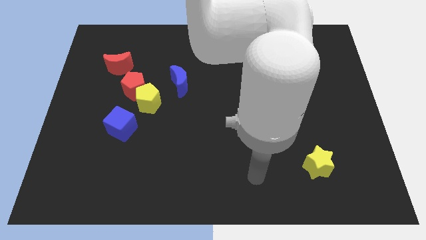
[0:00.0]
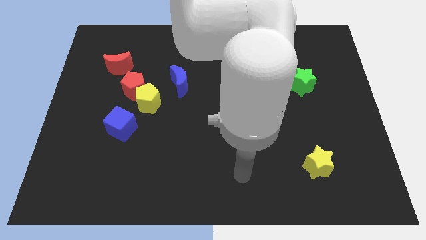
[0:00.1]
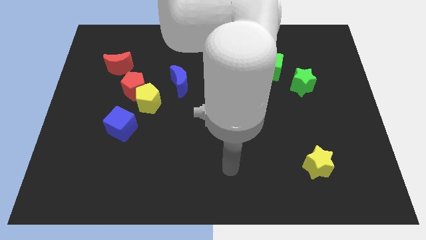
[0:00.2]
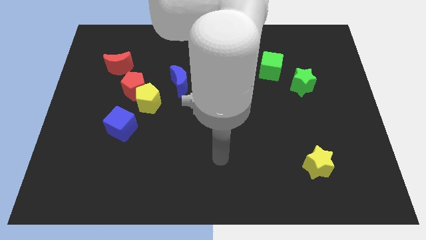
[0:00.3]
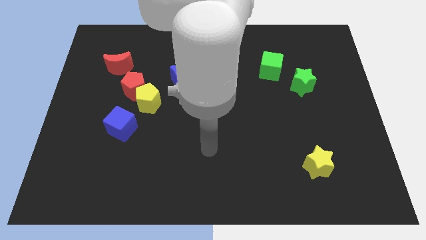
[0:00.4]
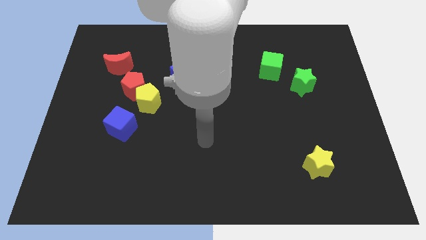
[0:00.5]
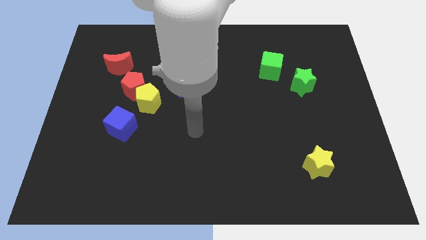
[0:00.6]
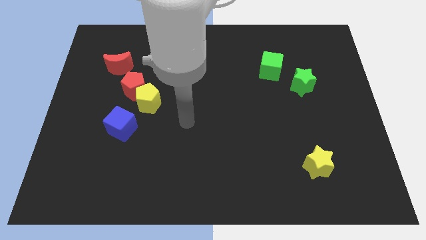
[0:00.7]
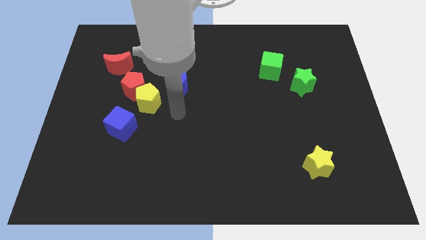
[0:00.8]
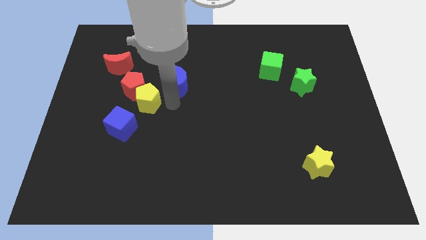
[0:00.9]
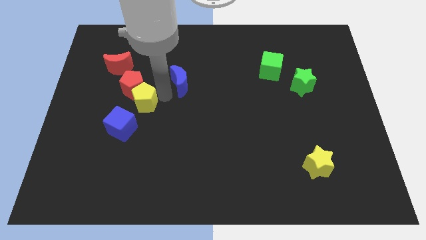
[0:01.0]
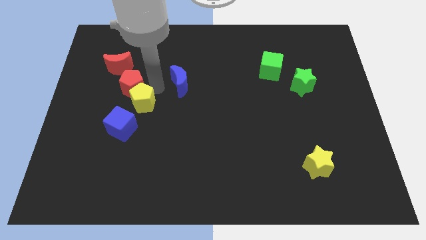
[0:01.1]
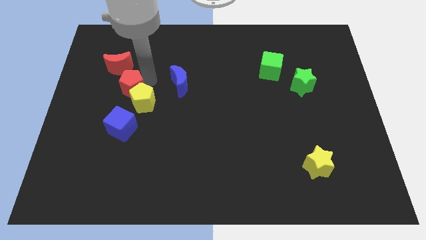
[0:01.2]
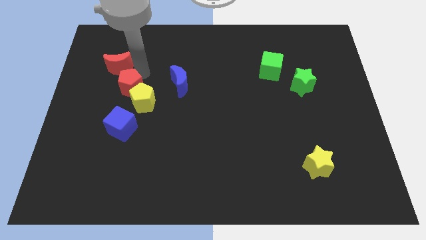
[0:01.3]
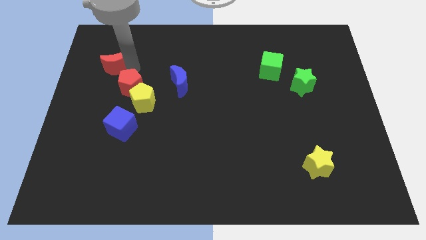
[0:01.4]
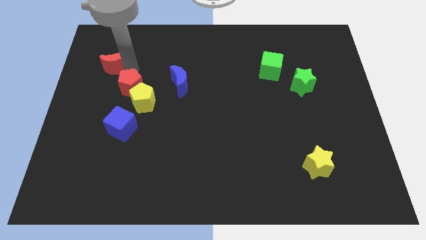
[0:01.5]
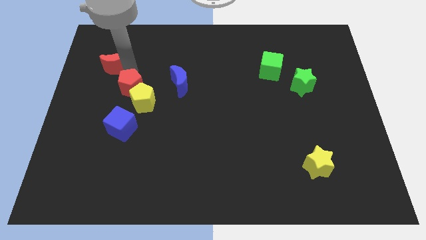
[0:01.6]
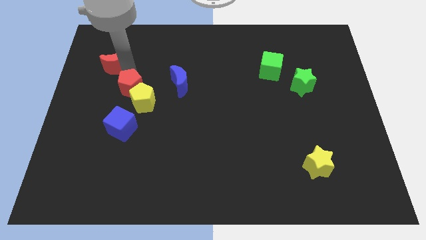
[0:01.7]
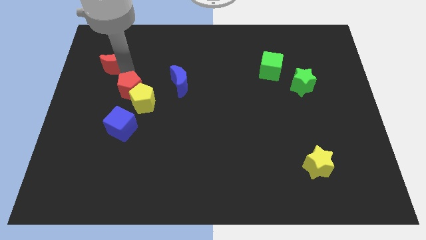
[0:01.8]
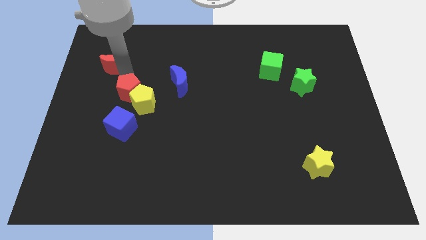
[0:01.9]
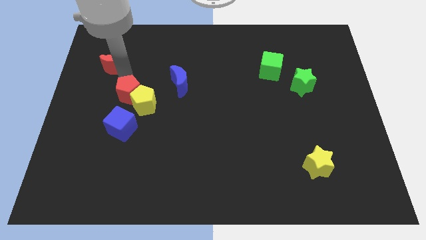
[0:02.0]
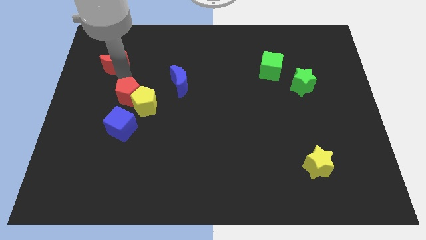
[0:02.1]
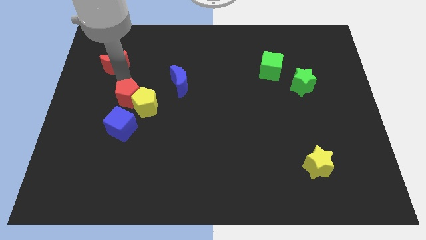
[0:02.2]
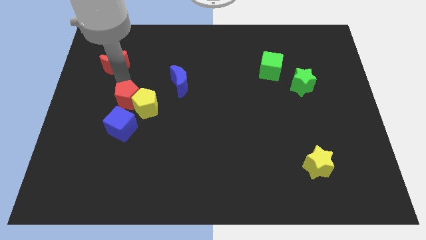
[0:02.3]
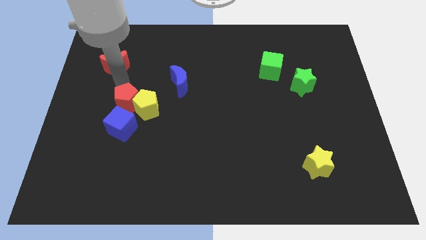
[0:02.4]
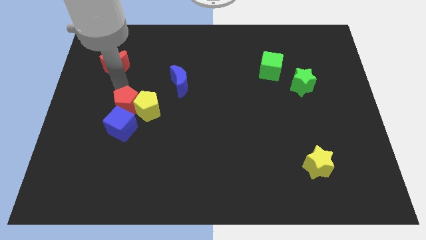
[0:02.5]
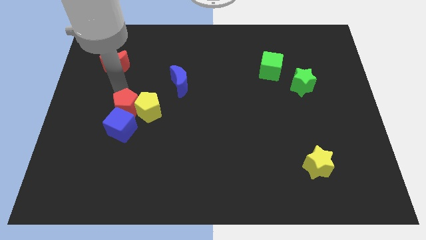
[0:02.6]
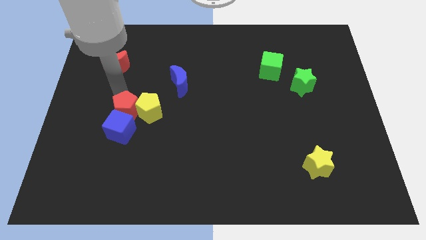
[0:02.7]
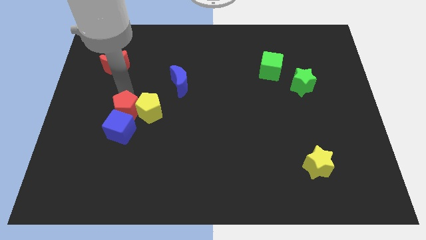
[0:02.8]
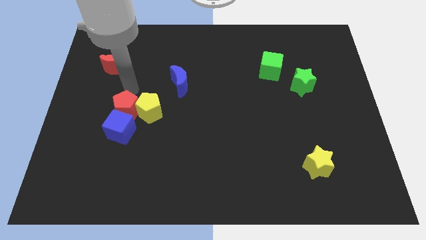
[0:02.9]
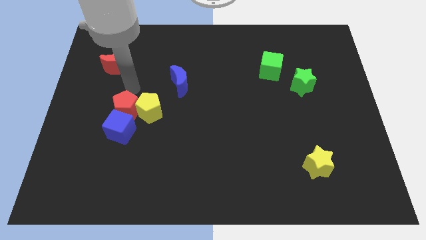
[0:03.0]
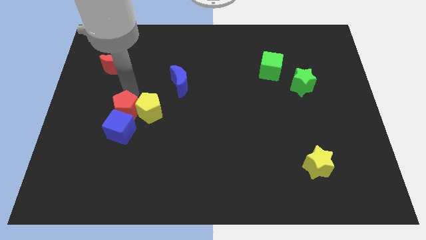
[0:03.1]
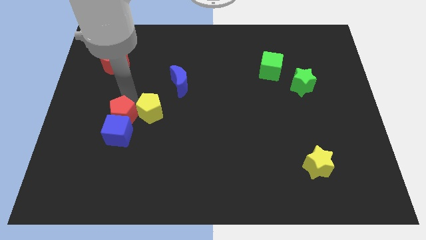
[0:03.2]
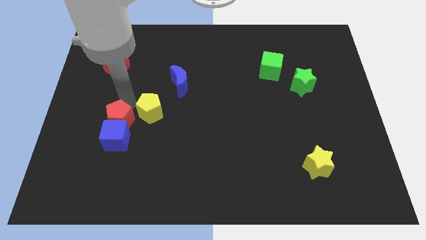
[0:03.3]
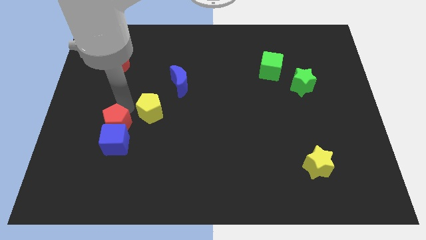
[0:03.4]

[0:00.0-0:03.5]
separate the red pentagon from the yellow pentagon and red moon

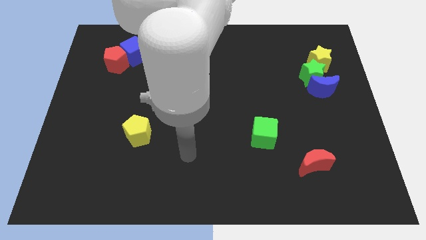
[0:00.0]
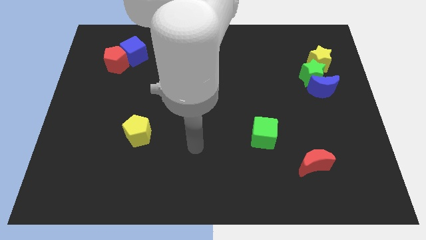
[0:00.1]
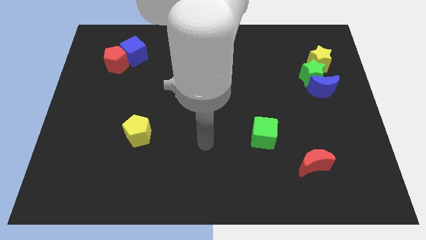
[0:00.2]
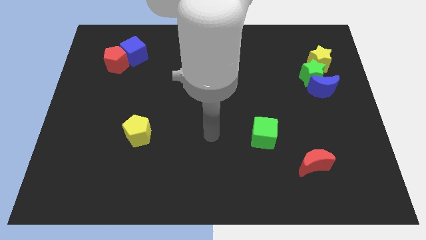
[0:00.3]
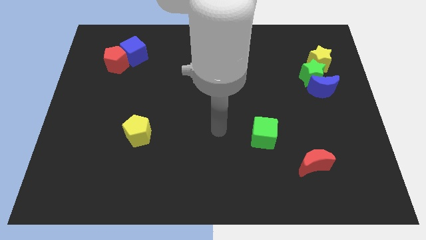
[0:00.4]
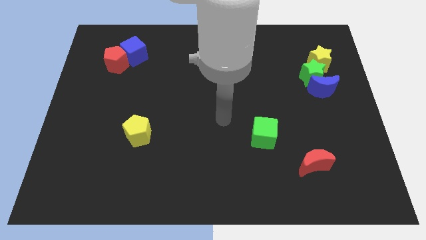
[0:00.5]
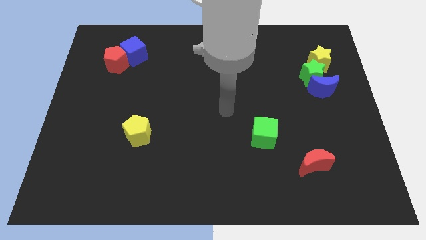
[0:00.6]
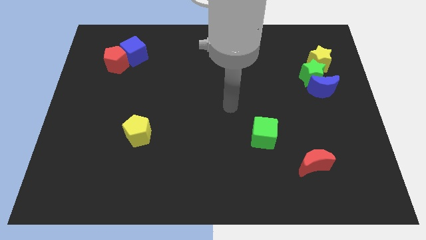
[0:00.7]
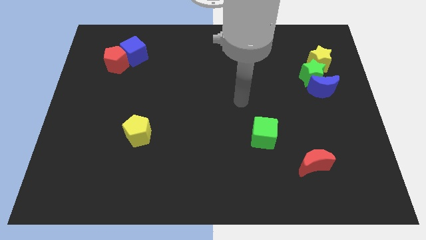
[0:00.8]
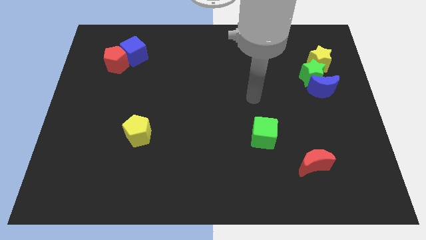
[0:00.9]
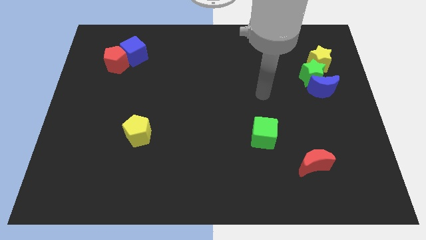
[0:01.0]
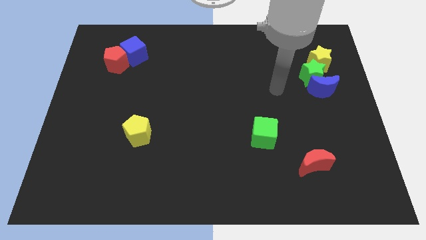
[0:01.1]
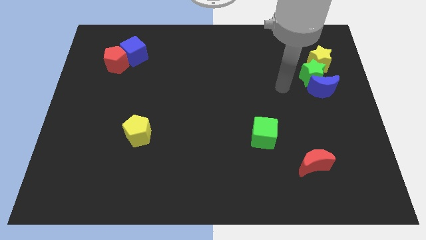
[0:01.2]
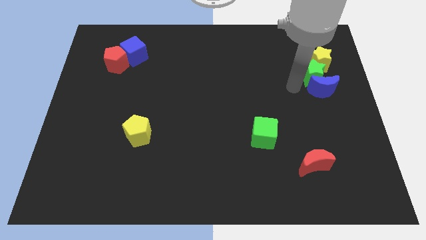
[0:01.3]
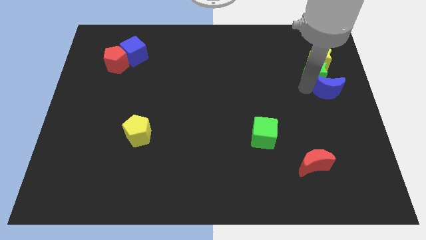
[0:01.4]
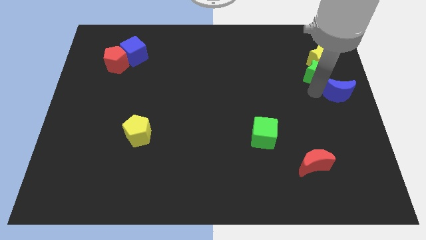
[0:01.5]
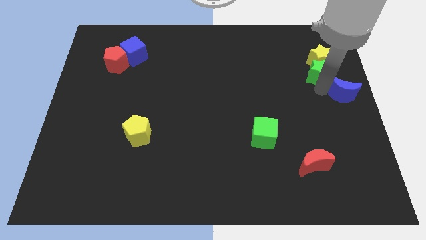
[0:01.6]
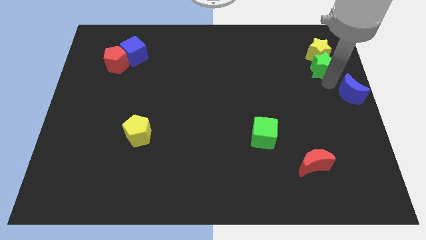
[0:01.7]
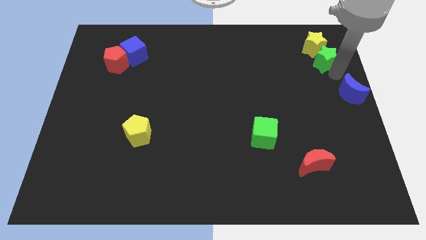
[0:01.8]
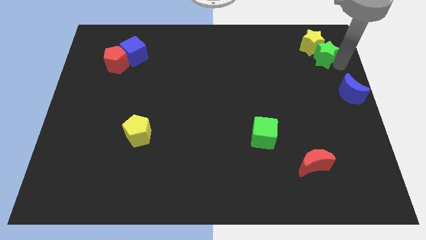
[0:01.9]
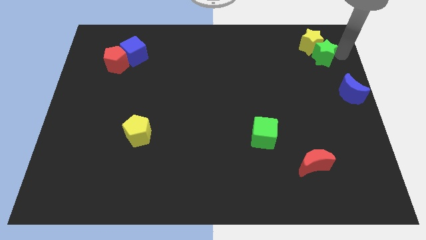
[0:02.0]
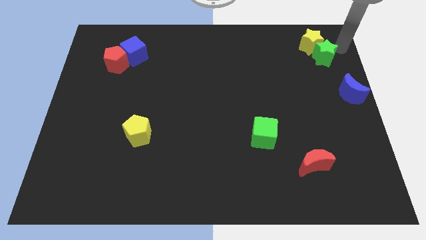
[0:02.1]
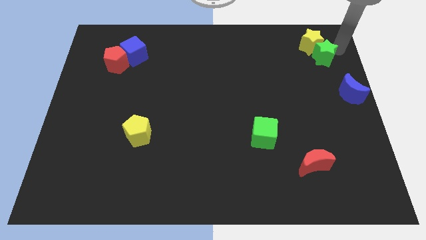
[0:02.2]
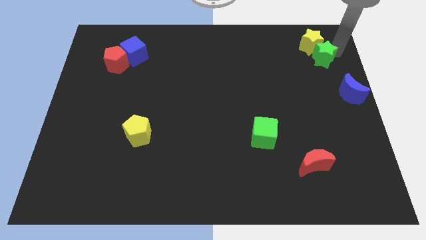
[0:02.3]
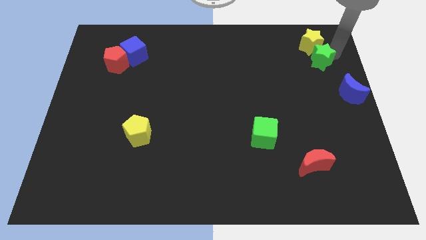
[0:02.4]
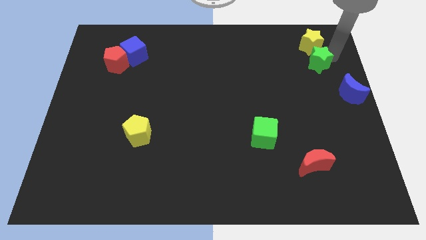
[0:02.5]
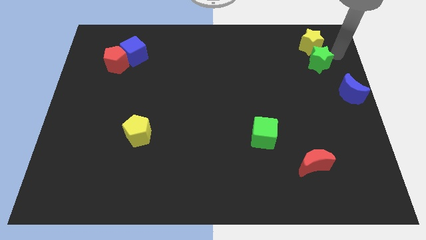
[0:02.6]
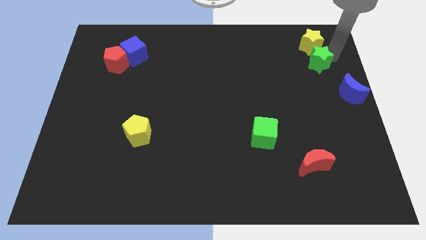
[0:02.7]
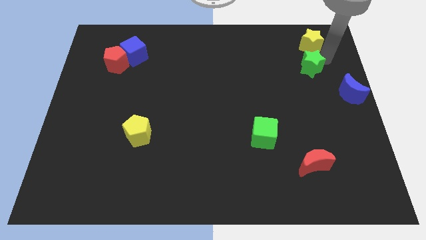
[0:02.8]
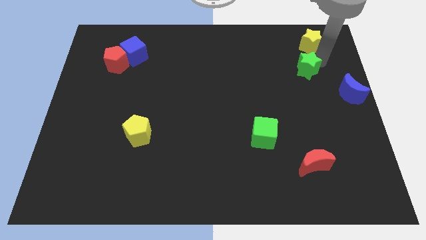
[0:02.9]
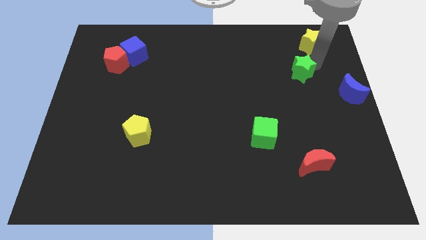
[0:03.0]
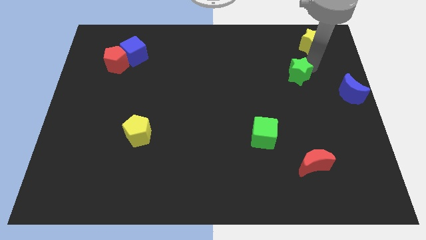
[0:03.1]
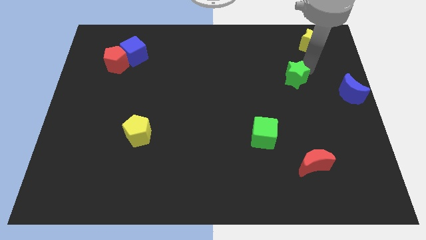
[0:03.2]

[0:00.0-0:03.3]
move the green star away from the blue moon and yellow star

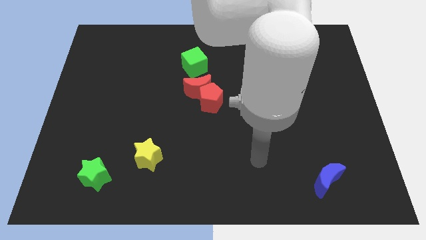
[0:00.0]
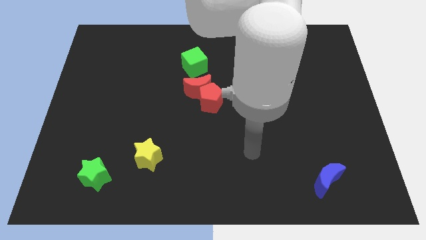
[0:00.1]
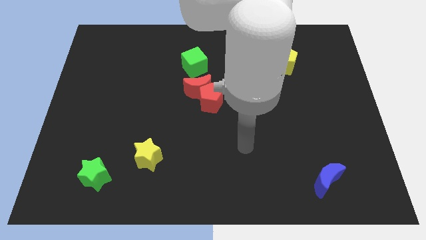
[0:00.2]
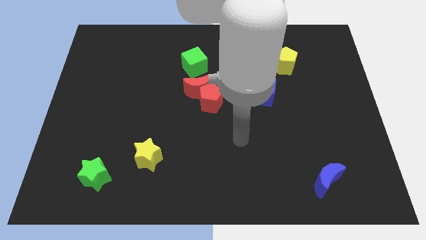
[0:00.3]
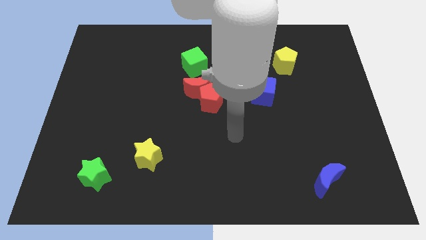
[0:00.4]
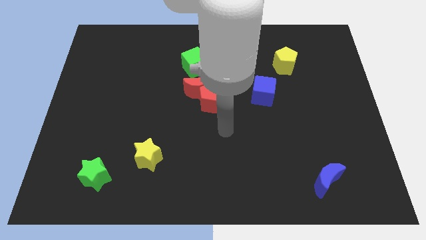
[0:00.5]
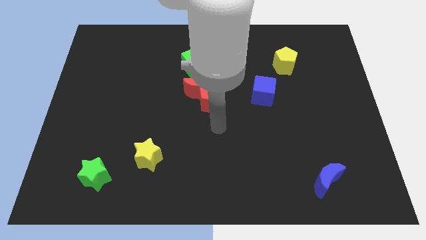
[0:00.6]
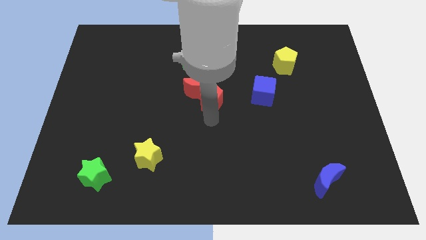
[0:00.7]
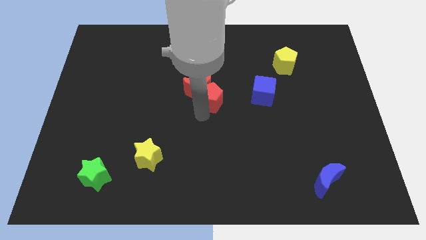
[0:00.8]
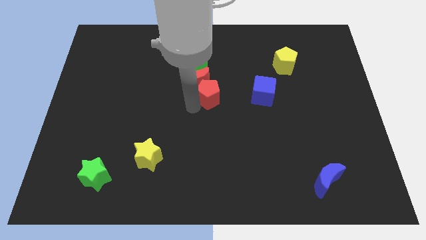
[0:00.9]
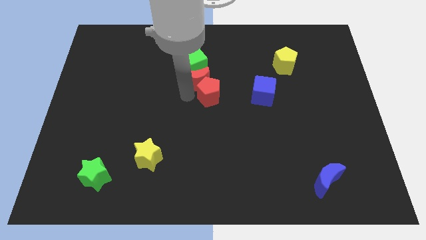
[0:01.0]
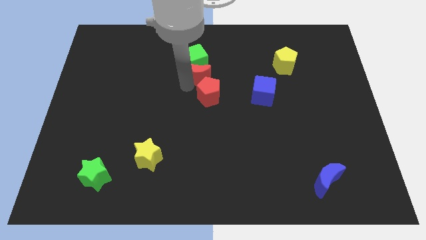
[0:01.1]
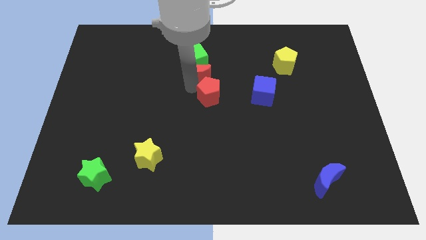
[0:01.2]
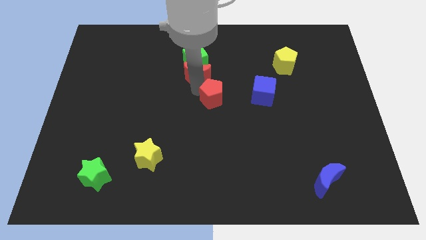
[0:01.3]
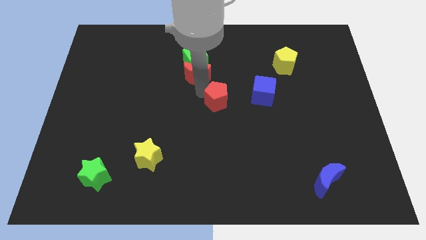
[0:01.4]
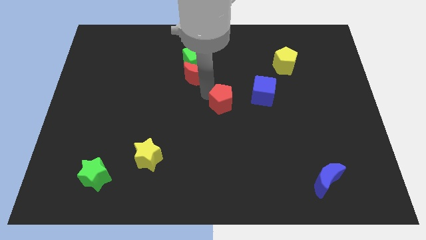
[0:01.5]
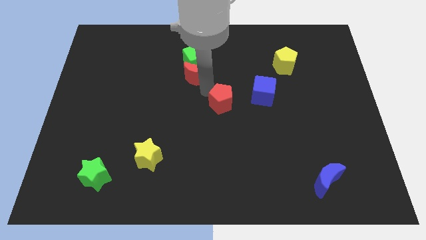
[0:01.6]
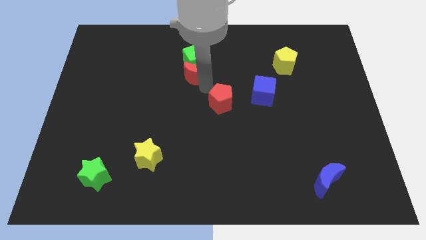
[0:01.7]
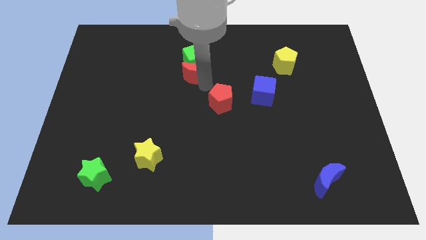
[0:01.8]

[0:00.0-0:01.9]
separate the red pentagon from the red moon

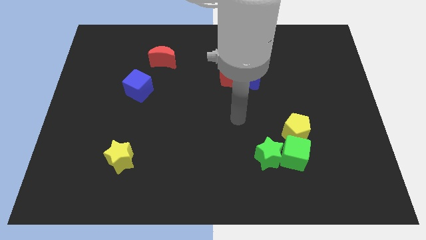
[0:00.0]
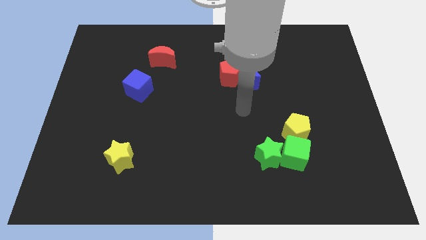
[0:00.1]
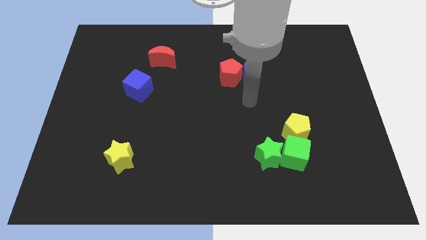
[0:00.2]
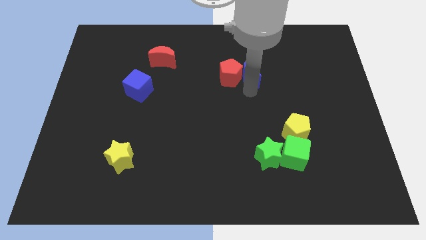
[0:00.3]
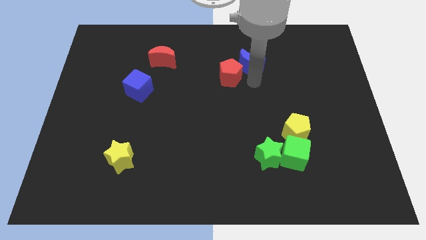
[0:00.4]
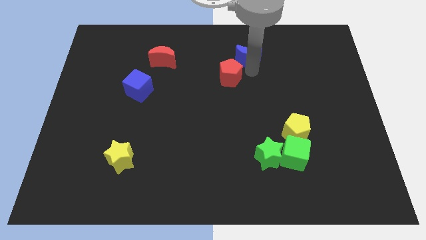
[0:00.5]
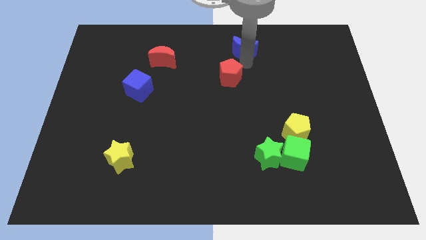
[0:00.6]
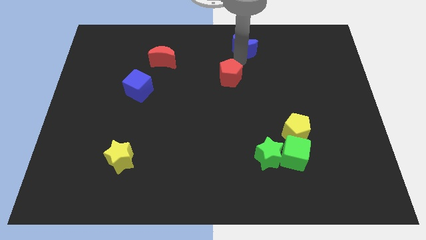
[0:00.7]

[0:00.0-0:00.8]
separate the red pentagon from the blue moon
